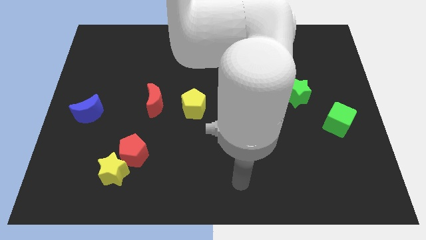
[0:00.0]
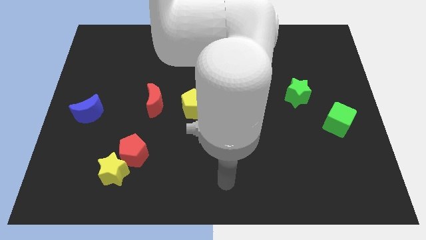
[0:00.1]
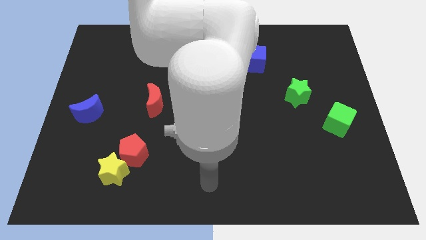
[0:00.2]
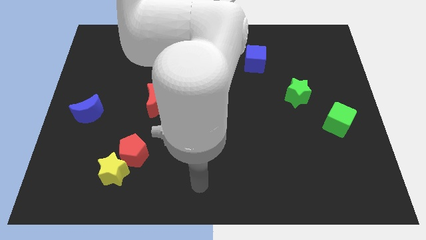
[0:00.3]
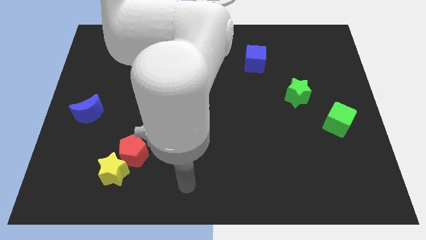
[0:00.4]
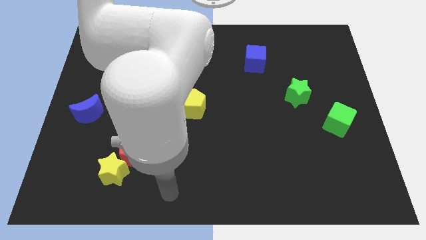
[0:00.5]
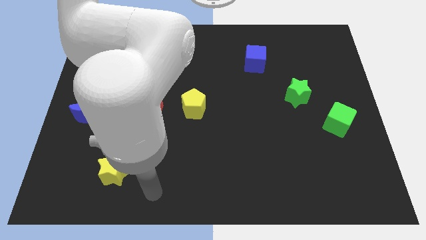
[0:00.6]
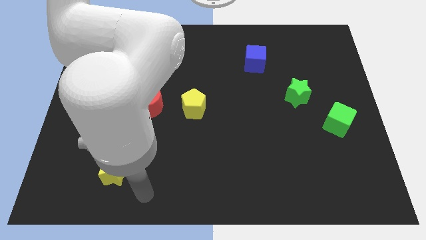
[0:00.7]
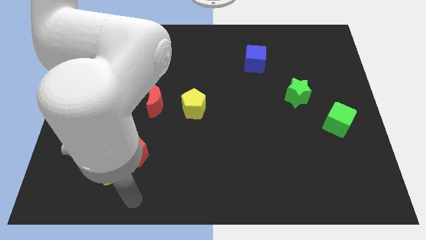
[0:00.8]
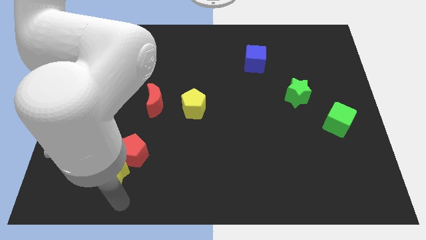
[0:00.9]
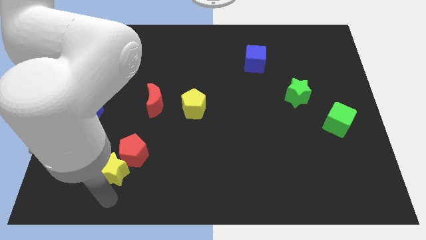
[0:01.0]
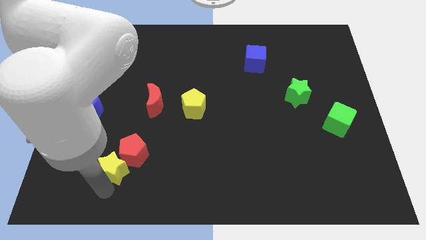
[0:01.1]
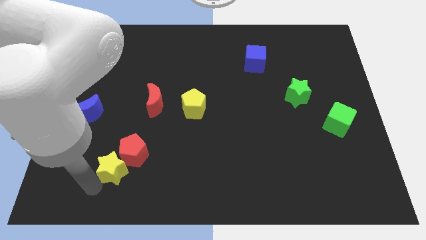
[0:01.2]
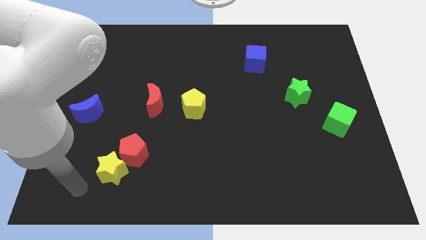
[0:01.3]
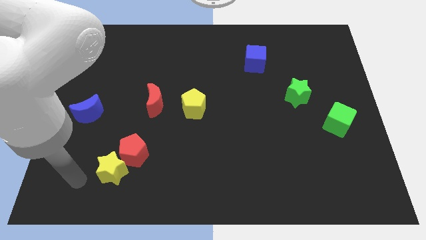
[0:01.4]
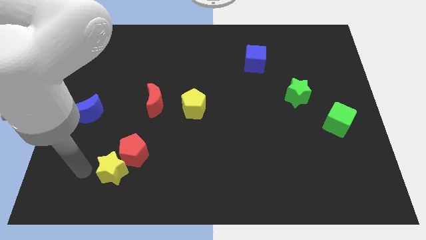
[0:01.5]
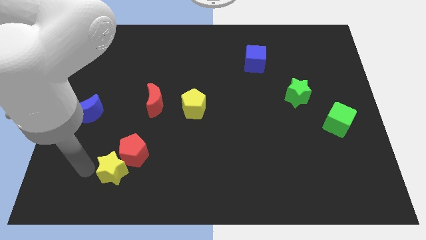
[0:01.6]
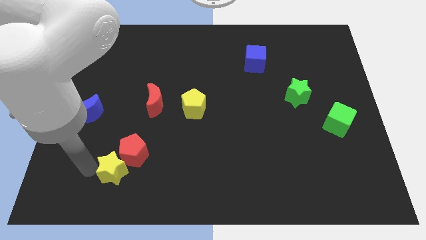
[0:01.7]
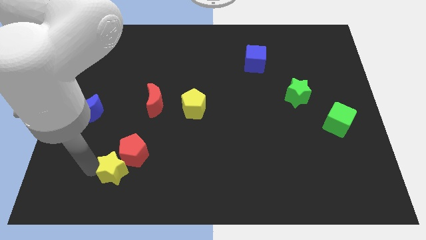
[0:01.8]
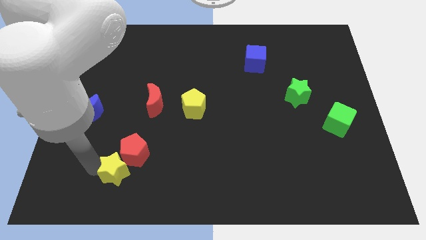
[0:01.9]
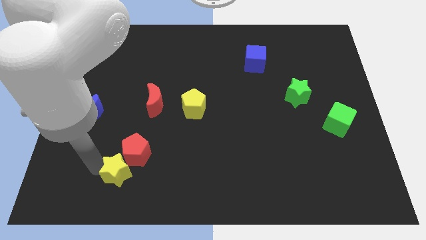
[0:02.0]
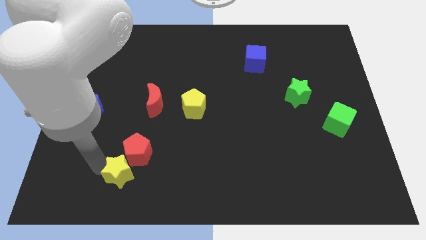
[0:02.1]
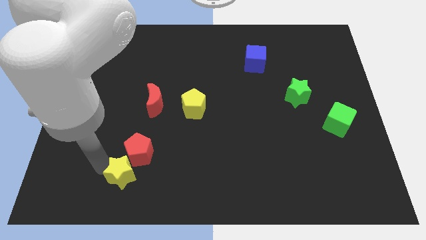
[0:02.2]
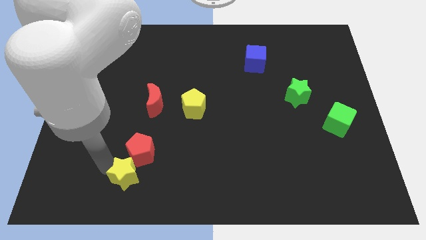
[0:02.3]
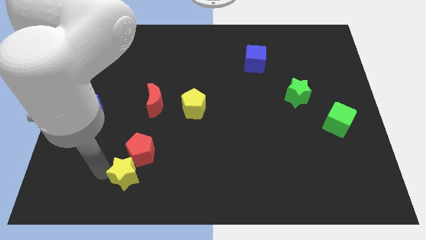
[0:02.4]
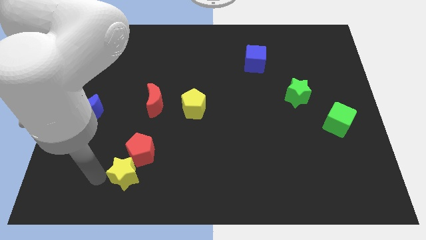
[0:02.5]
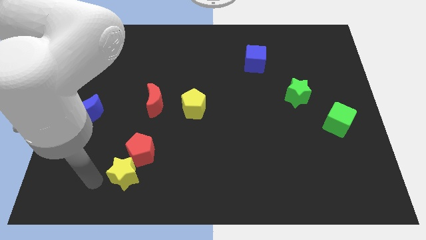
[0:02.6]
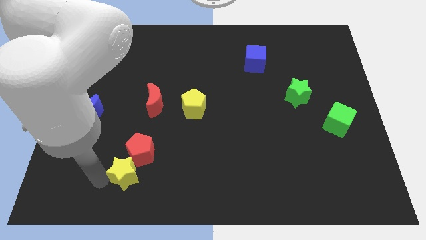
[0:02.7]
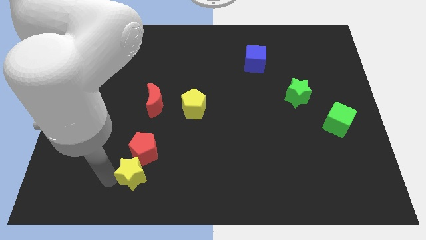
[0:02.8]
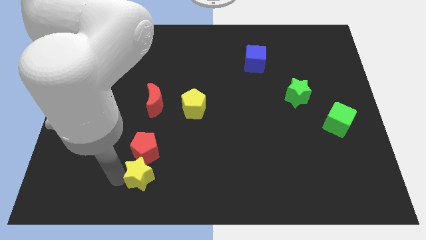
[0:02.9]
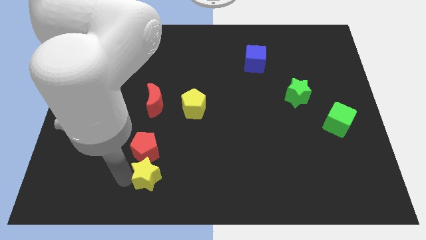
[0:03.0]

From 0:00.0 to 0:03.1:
push the yellow star a little bit right

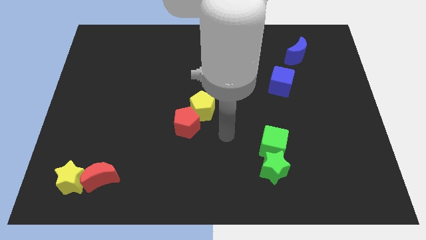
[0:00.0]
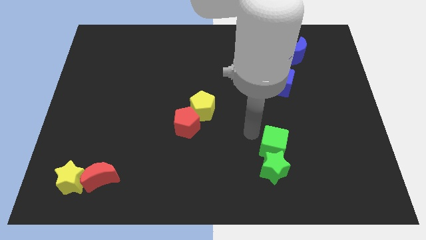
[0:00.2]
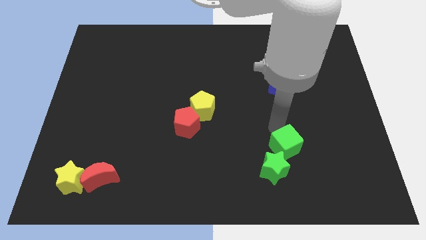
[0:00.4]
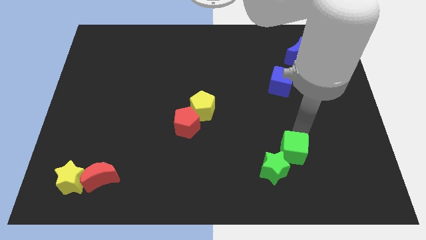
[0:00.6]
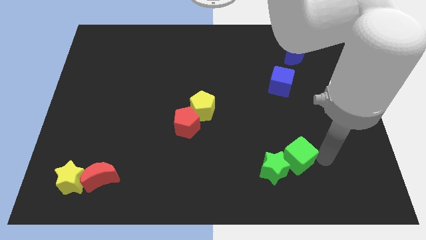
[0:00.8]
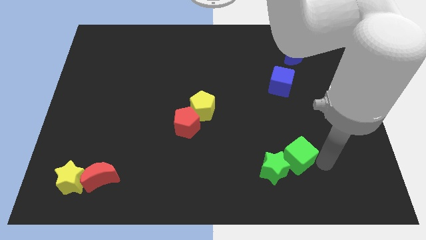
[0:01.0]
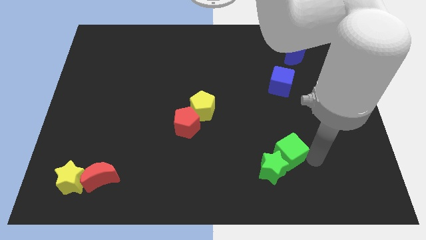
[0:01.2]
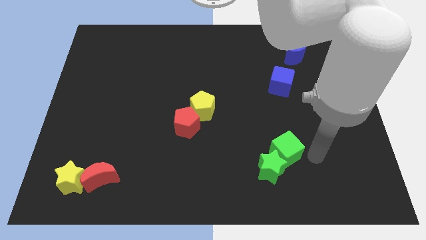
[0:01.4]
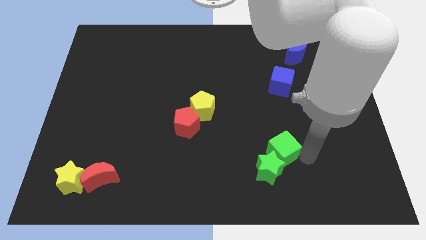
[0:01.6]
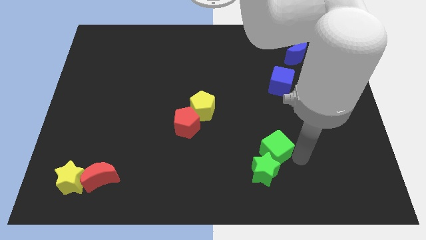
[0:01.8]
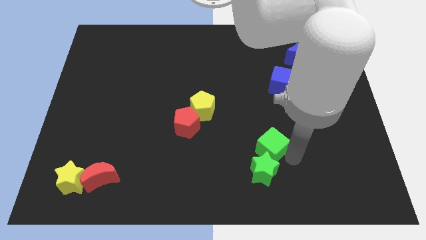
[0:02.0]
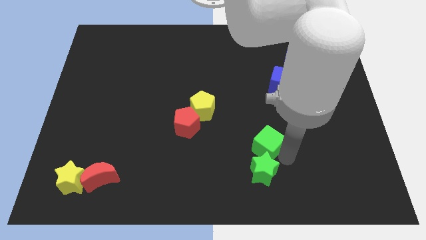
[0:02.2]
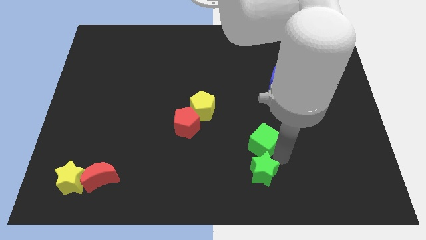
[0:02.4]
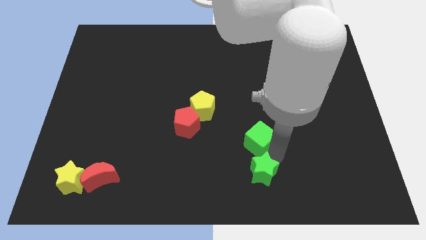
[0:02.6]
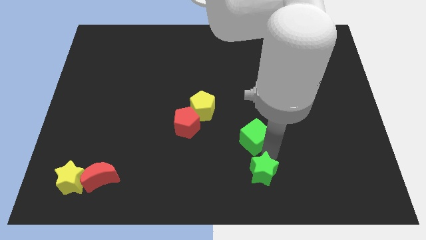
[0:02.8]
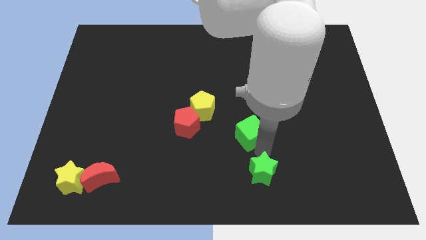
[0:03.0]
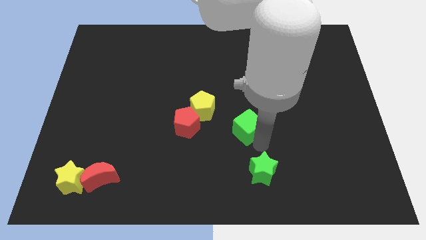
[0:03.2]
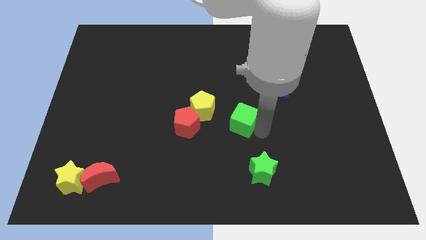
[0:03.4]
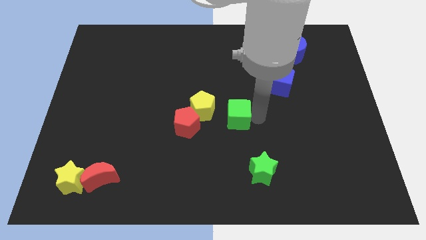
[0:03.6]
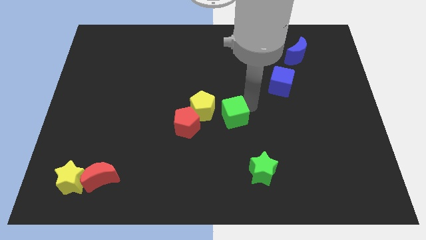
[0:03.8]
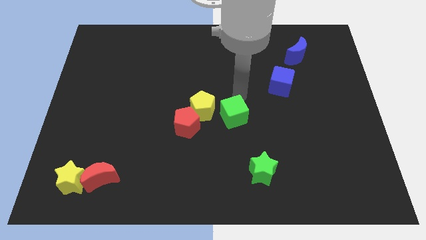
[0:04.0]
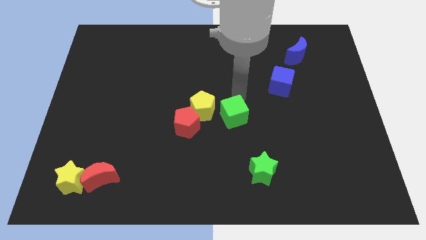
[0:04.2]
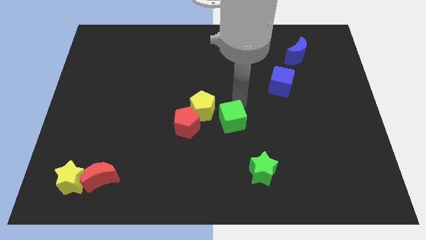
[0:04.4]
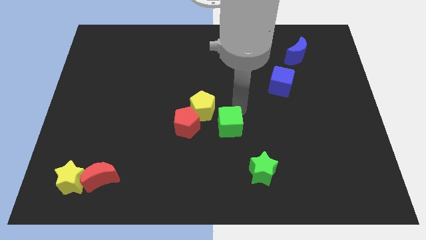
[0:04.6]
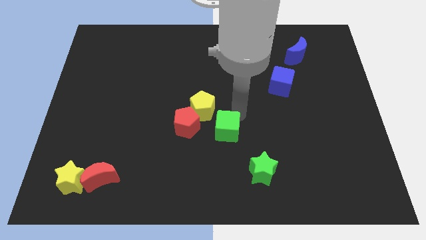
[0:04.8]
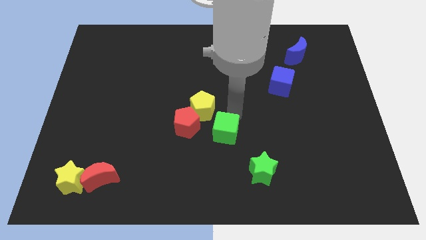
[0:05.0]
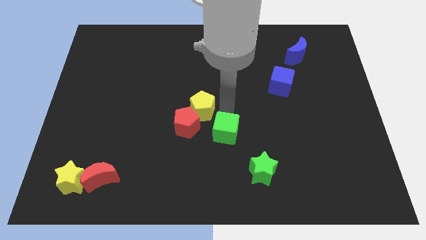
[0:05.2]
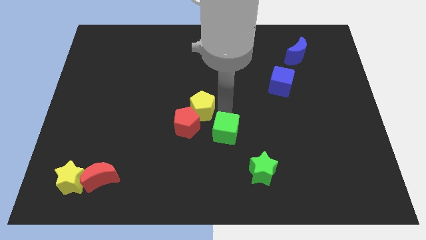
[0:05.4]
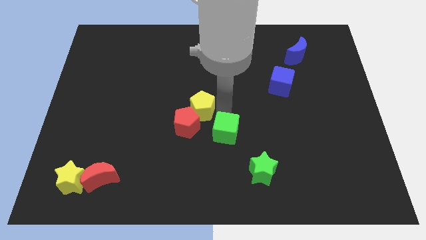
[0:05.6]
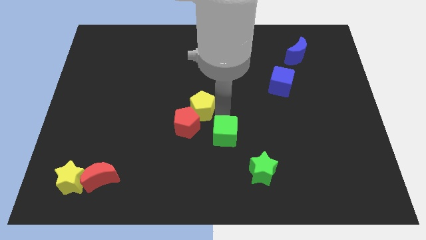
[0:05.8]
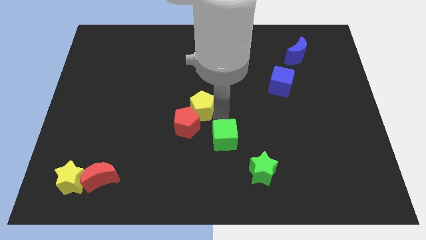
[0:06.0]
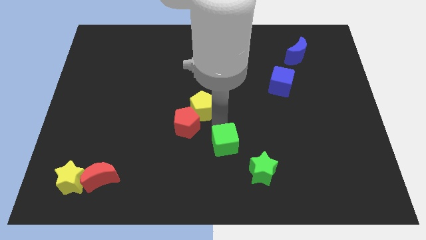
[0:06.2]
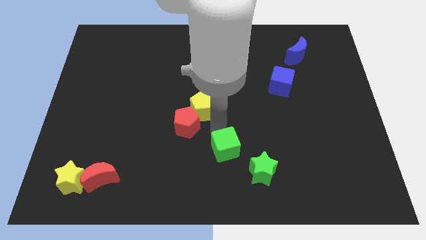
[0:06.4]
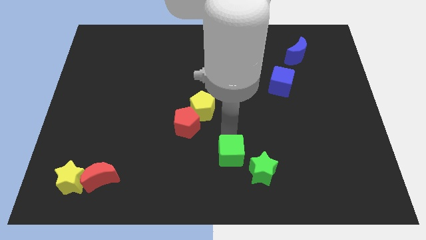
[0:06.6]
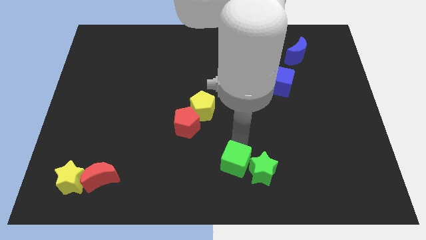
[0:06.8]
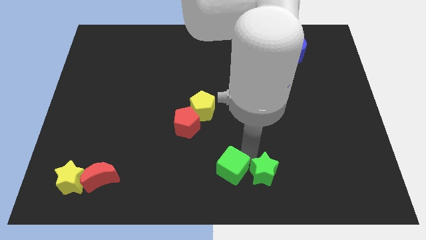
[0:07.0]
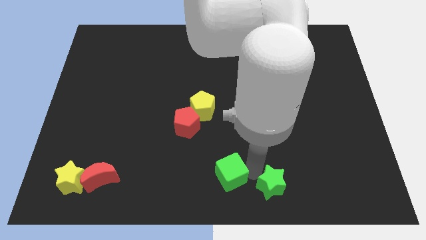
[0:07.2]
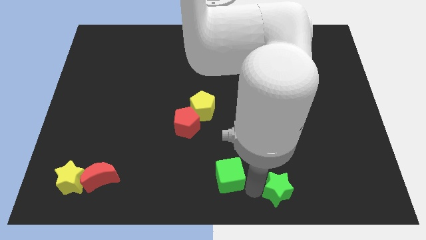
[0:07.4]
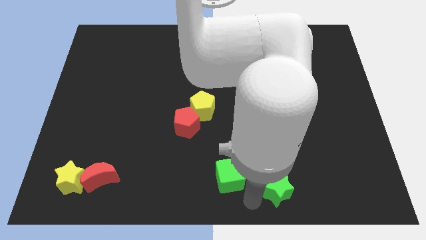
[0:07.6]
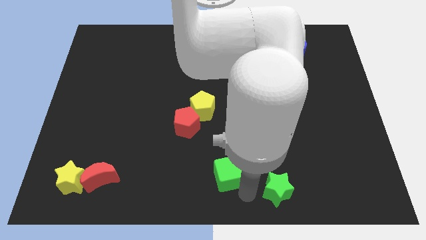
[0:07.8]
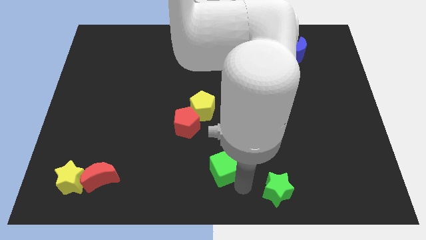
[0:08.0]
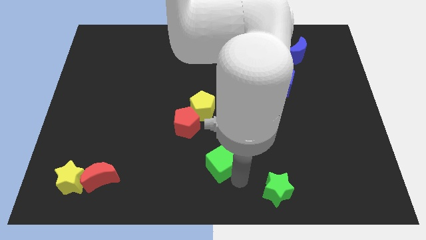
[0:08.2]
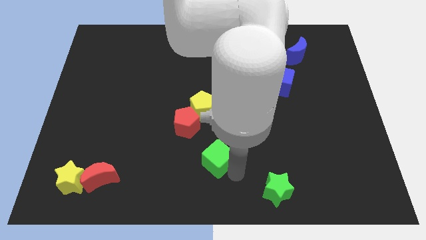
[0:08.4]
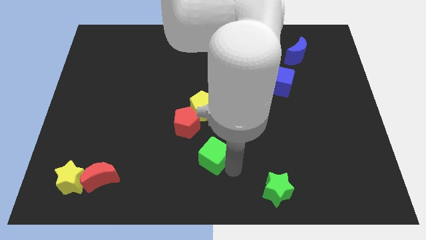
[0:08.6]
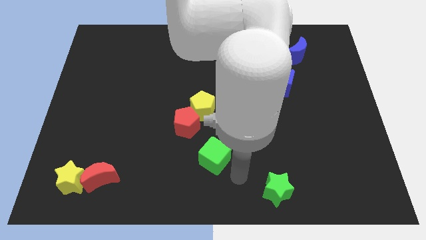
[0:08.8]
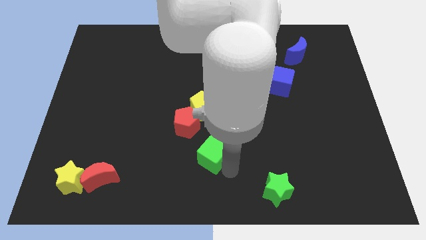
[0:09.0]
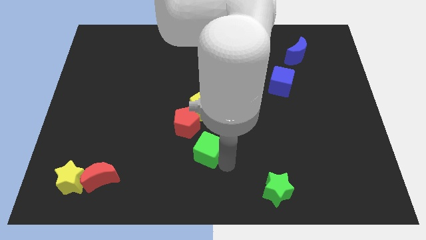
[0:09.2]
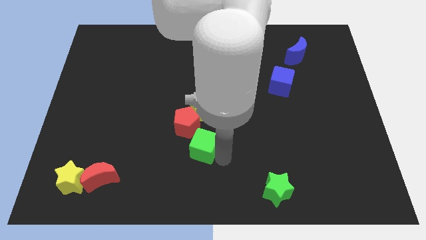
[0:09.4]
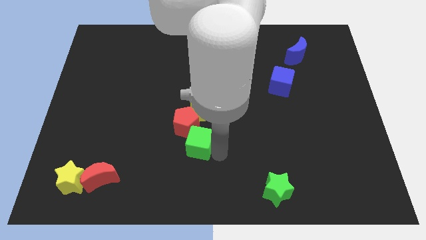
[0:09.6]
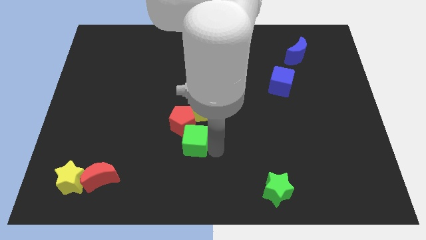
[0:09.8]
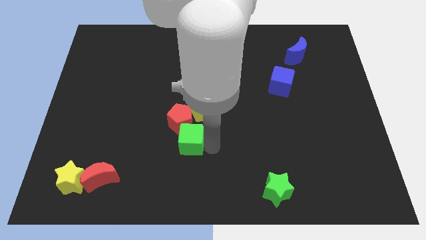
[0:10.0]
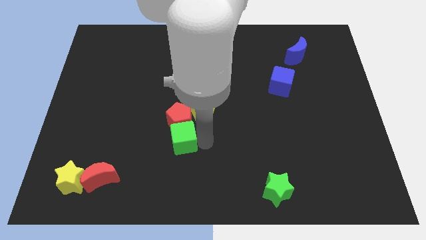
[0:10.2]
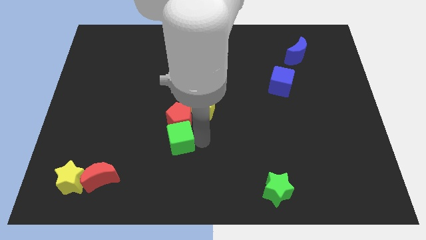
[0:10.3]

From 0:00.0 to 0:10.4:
push the green cube left

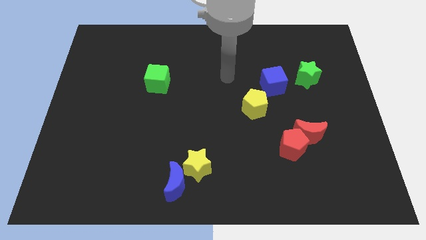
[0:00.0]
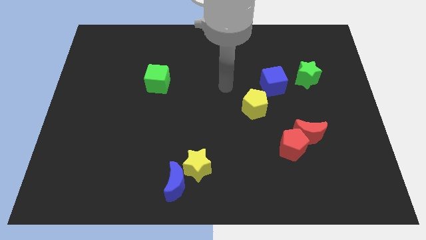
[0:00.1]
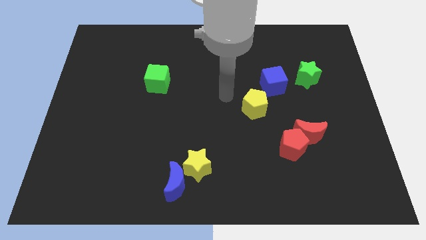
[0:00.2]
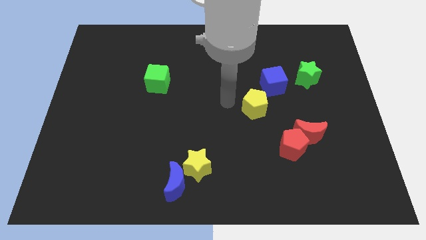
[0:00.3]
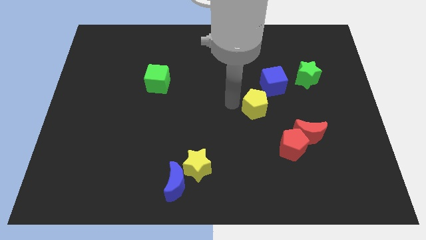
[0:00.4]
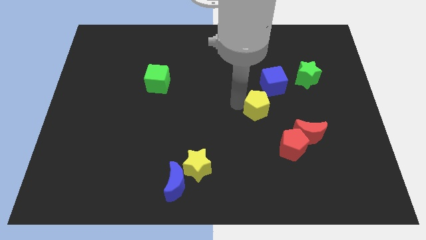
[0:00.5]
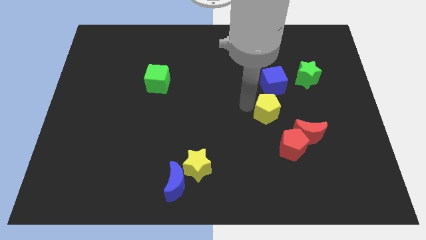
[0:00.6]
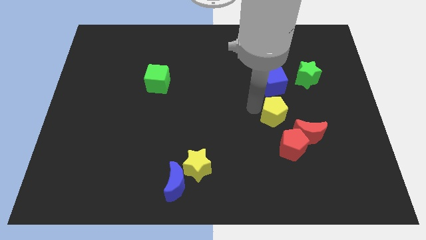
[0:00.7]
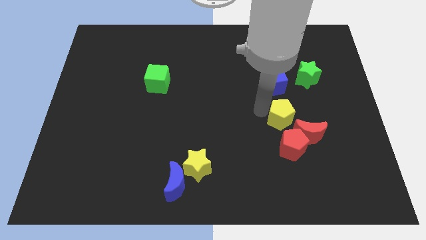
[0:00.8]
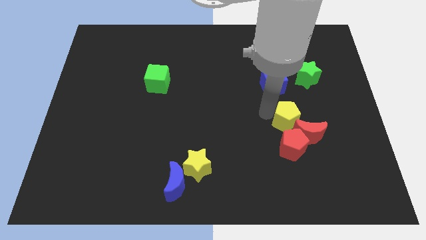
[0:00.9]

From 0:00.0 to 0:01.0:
slightly move the yellow pentagon downwards and right diagonally
